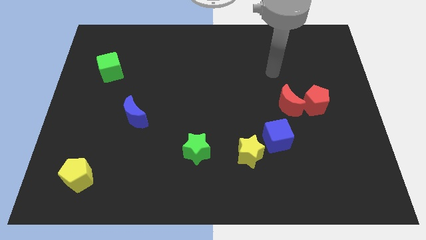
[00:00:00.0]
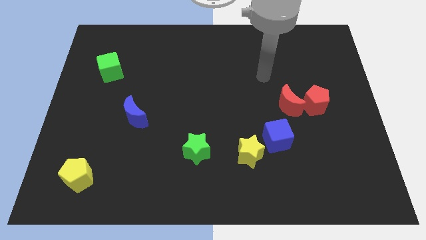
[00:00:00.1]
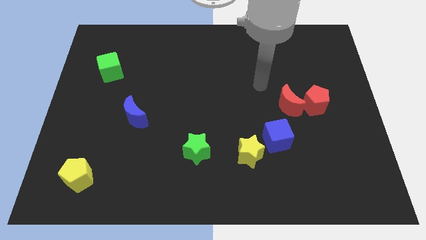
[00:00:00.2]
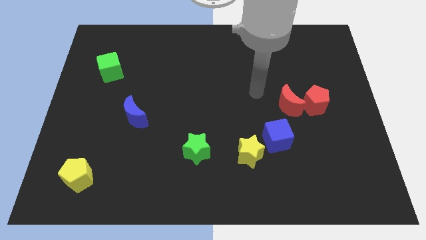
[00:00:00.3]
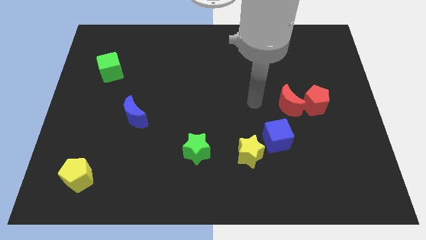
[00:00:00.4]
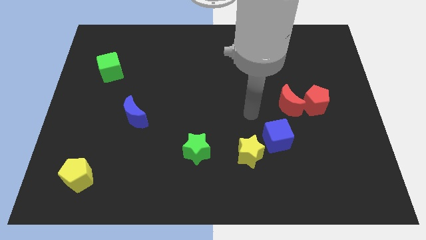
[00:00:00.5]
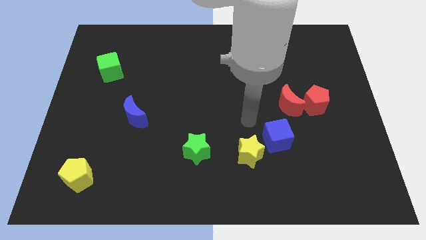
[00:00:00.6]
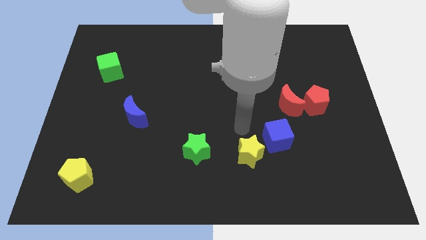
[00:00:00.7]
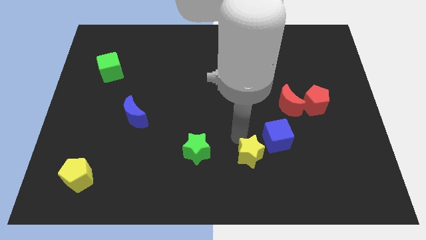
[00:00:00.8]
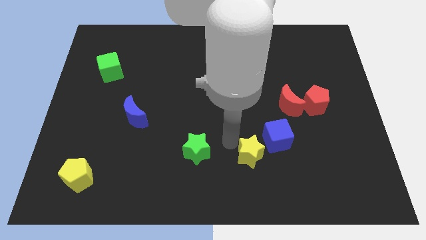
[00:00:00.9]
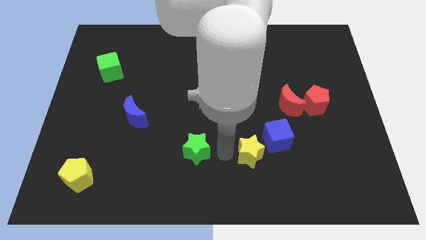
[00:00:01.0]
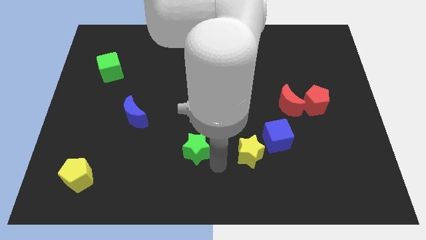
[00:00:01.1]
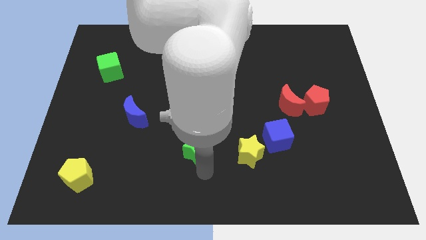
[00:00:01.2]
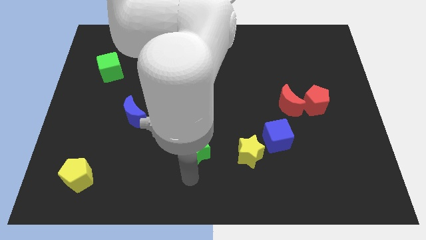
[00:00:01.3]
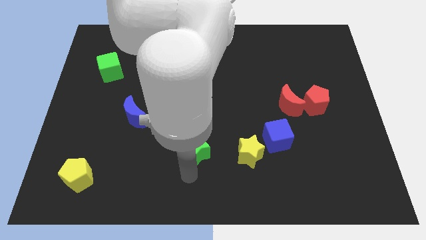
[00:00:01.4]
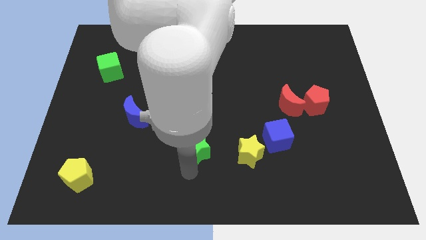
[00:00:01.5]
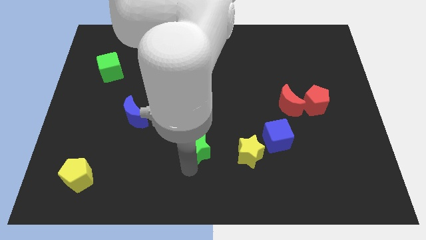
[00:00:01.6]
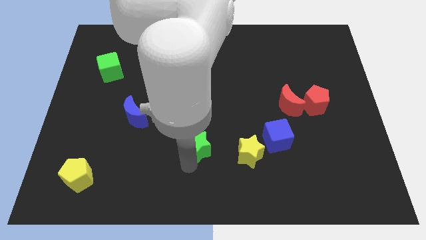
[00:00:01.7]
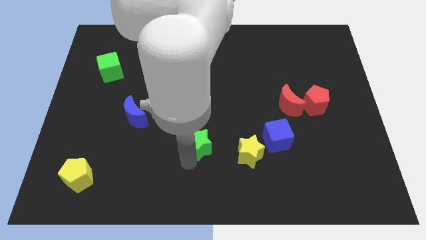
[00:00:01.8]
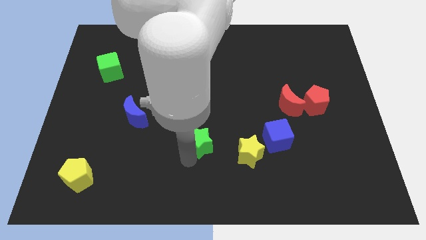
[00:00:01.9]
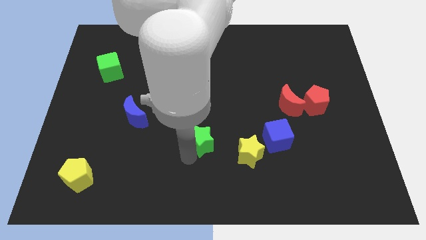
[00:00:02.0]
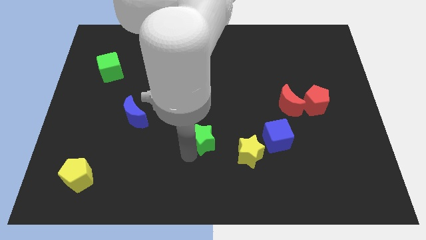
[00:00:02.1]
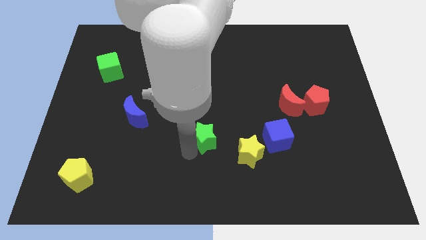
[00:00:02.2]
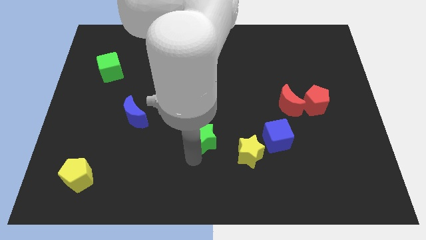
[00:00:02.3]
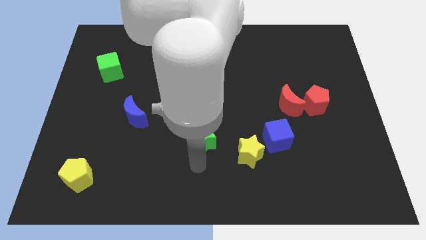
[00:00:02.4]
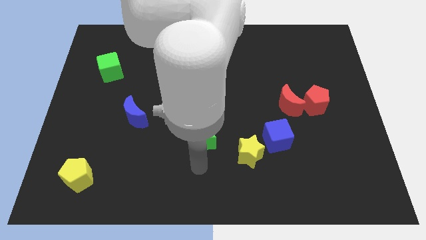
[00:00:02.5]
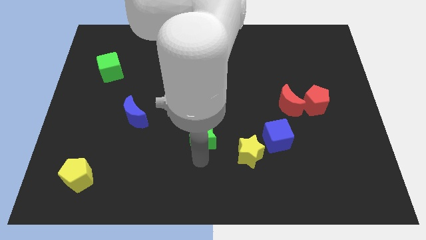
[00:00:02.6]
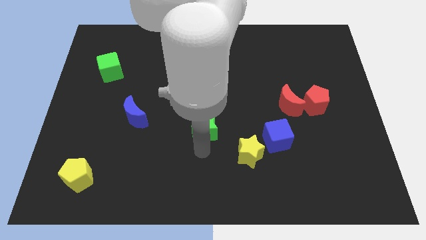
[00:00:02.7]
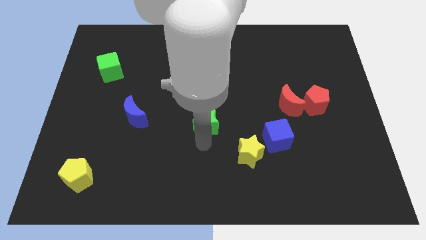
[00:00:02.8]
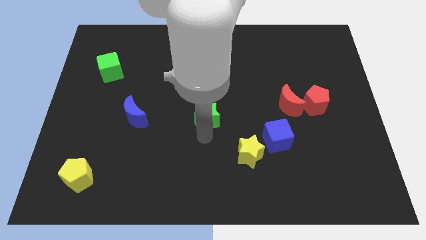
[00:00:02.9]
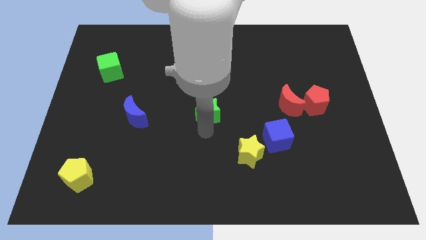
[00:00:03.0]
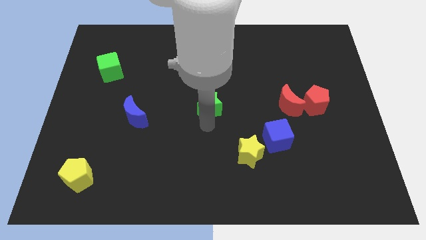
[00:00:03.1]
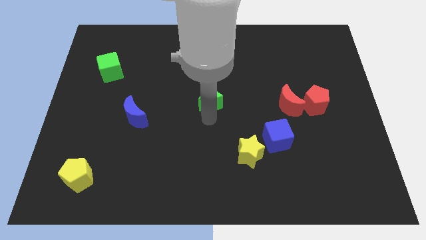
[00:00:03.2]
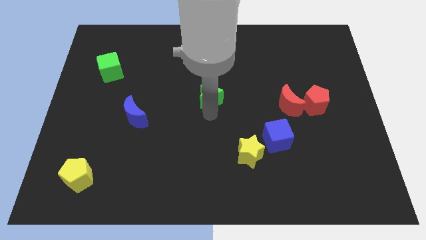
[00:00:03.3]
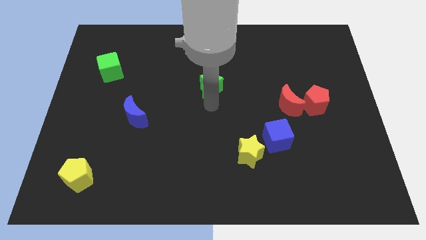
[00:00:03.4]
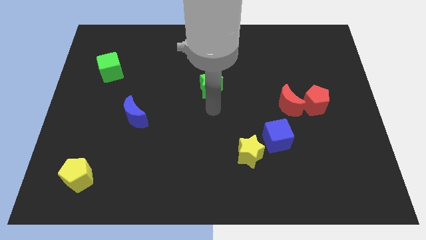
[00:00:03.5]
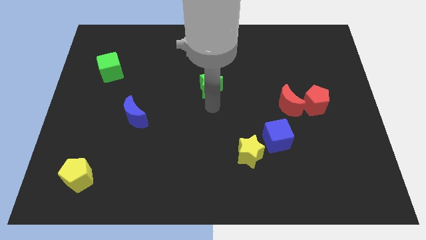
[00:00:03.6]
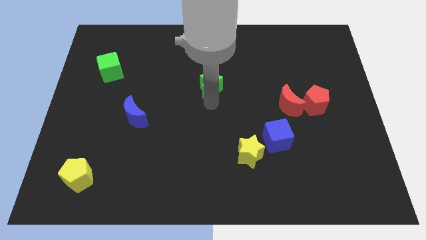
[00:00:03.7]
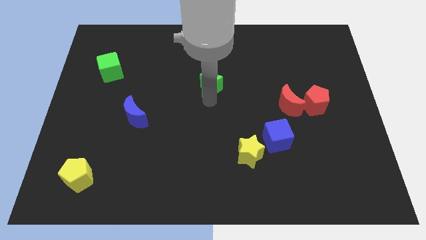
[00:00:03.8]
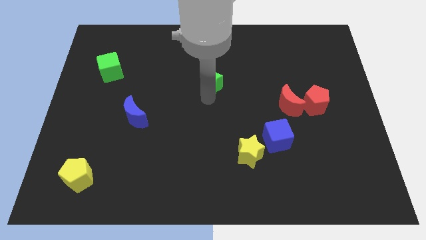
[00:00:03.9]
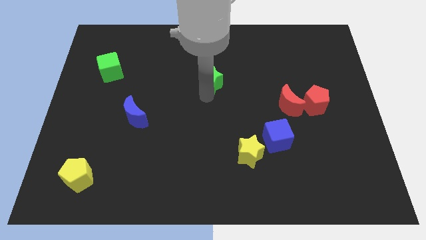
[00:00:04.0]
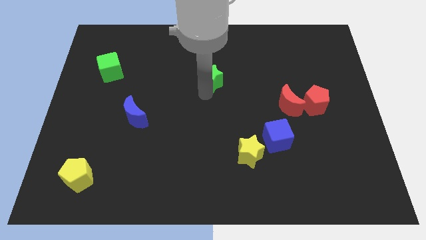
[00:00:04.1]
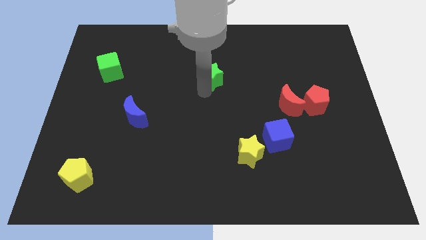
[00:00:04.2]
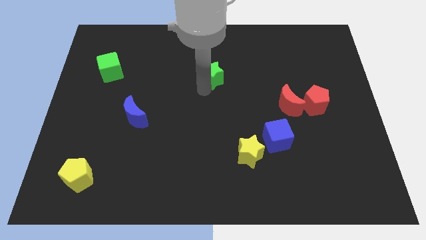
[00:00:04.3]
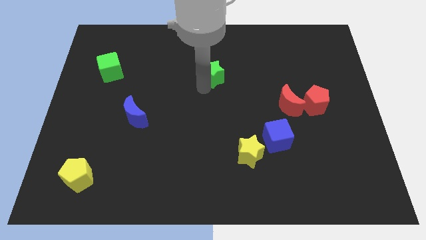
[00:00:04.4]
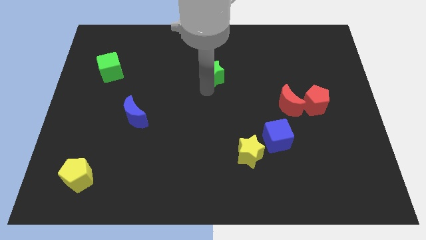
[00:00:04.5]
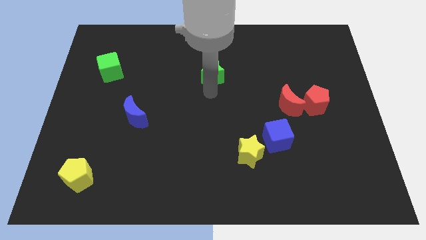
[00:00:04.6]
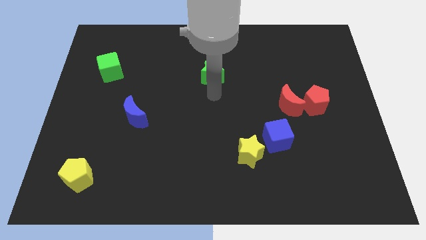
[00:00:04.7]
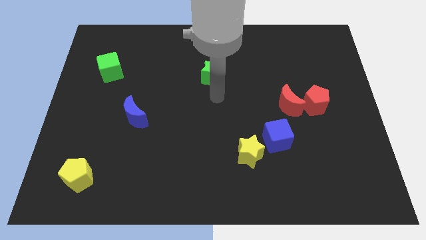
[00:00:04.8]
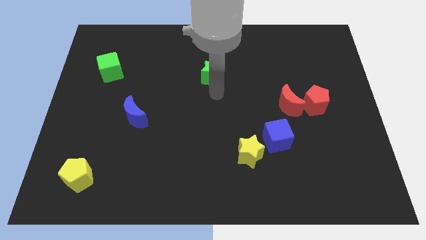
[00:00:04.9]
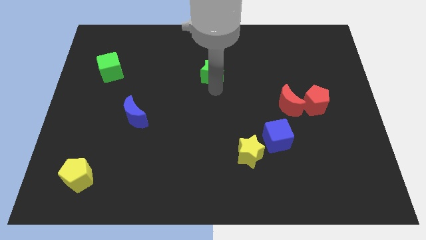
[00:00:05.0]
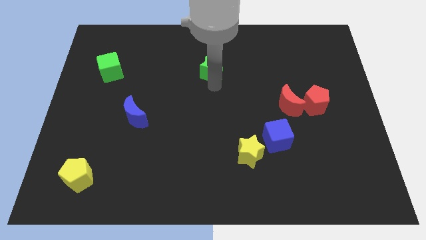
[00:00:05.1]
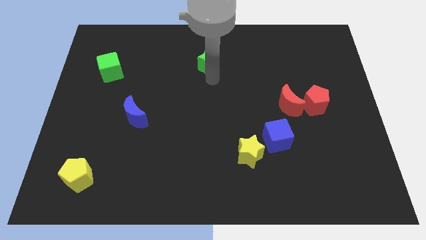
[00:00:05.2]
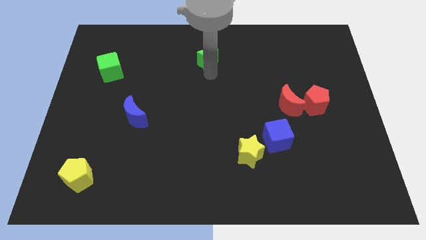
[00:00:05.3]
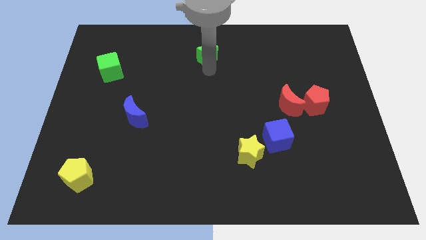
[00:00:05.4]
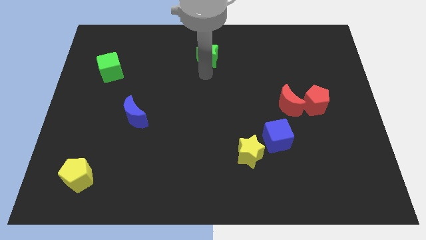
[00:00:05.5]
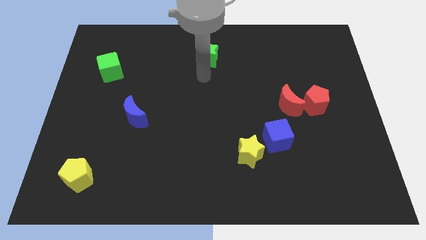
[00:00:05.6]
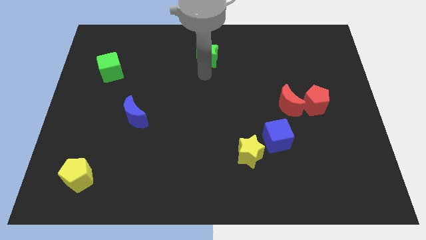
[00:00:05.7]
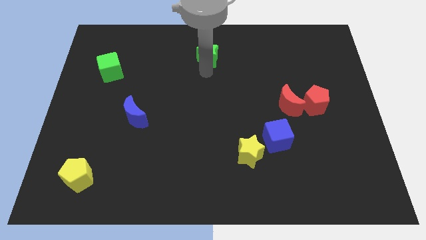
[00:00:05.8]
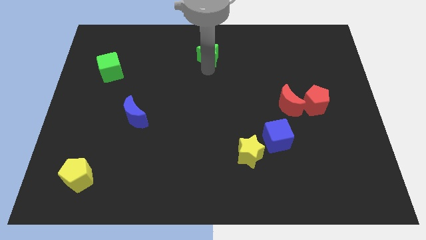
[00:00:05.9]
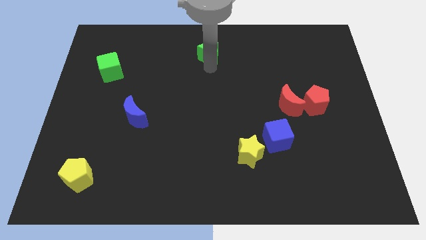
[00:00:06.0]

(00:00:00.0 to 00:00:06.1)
put the green star to the top side
